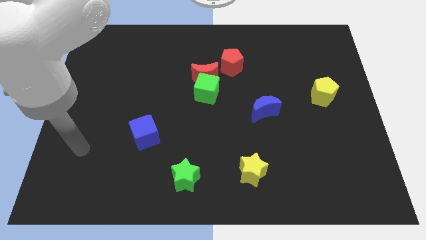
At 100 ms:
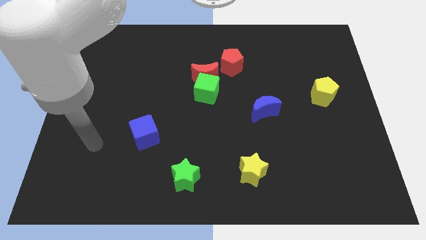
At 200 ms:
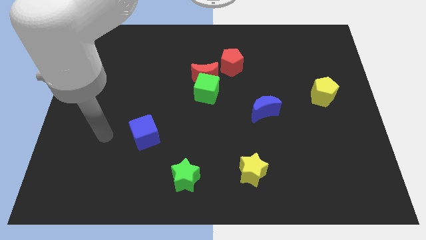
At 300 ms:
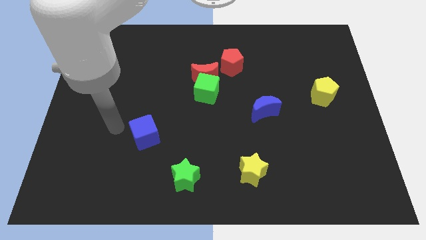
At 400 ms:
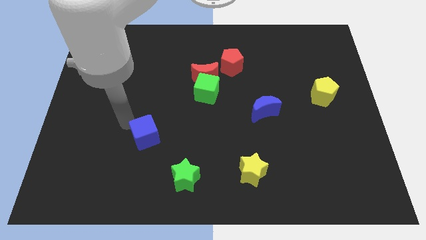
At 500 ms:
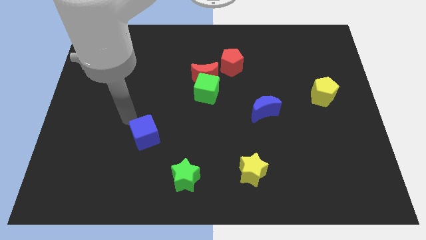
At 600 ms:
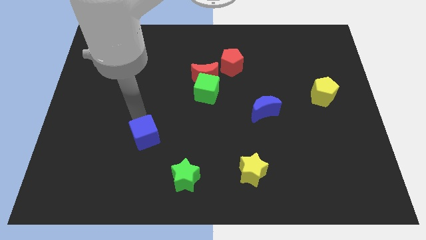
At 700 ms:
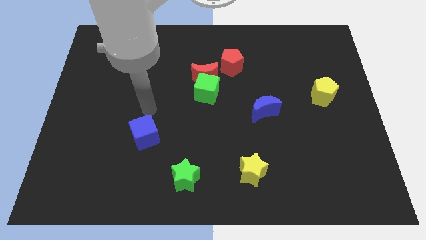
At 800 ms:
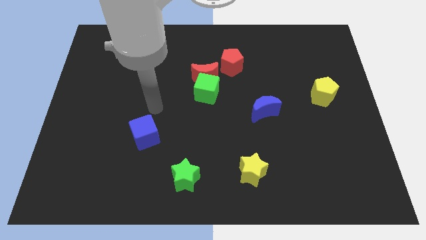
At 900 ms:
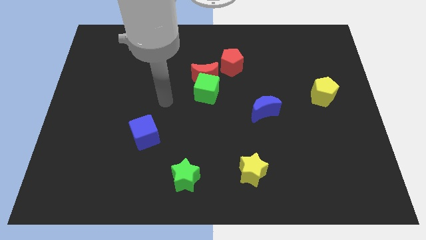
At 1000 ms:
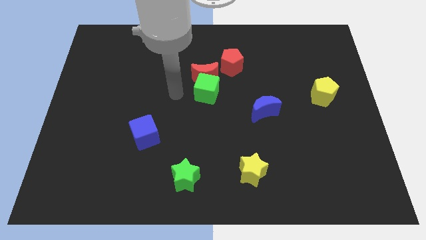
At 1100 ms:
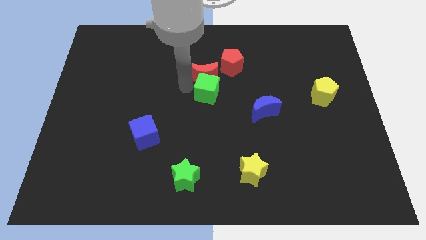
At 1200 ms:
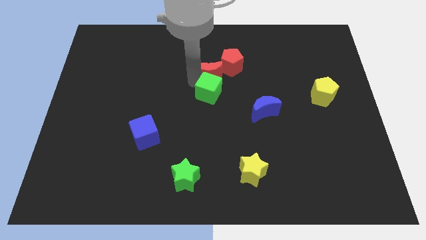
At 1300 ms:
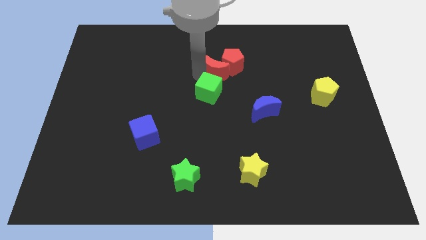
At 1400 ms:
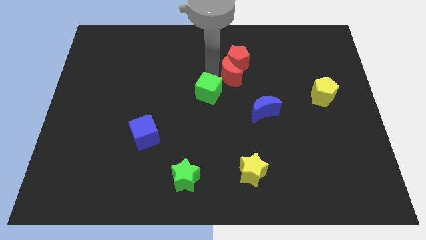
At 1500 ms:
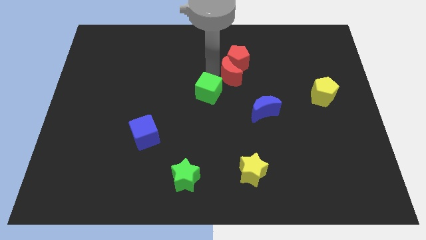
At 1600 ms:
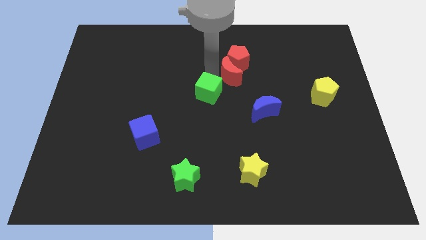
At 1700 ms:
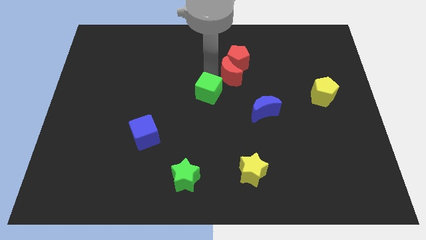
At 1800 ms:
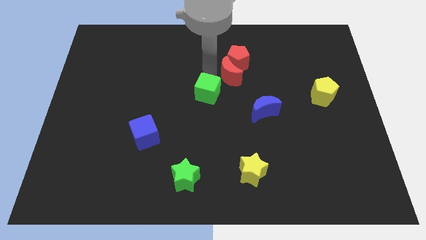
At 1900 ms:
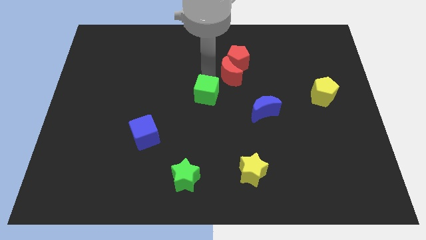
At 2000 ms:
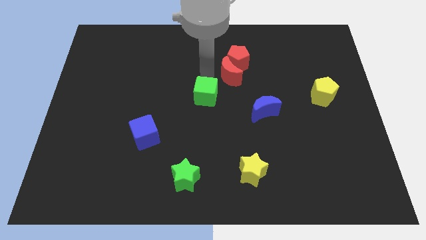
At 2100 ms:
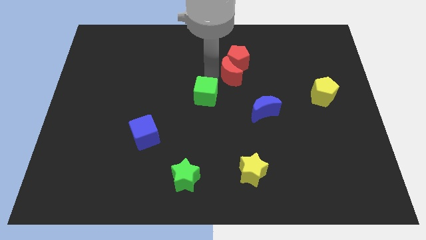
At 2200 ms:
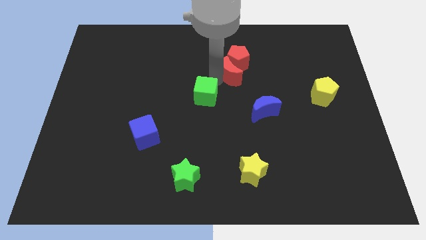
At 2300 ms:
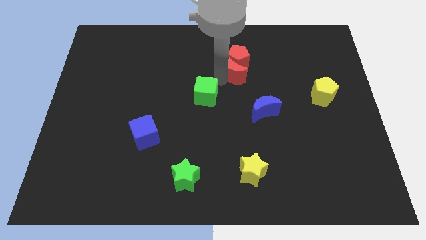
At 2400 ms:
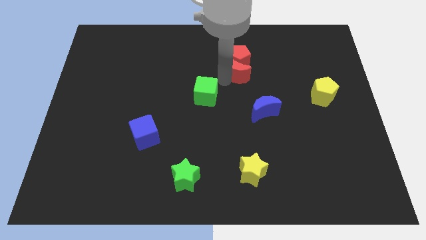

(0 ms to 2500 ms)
separate the green cube from the red moon

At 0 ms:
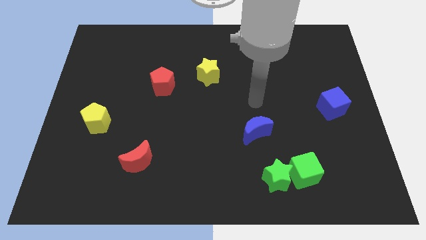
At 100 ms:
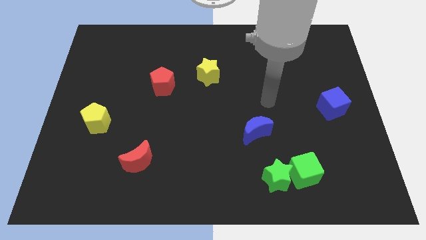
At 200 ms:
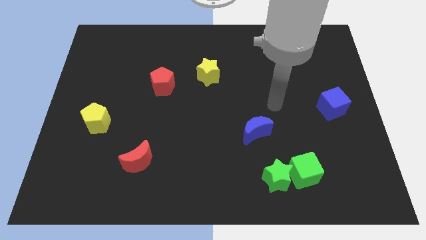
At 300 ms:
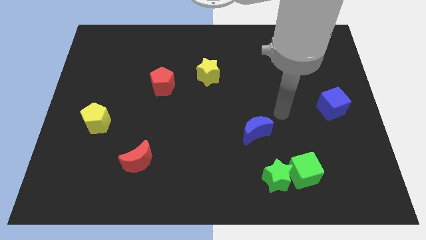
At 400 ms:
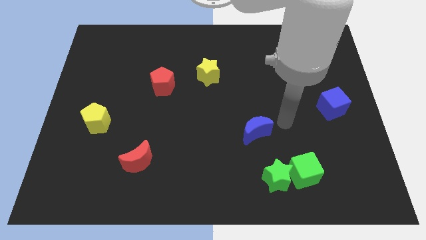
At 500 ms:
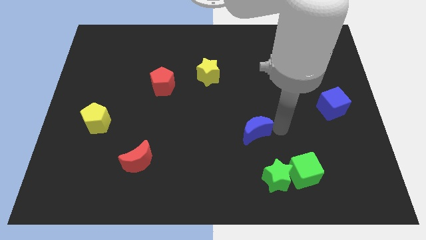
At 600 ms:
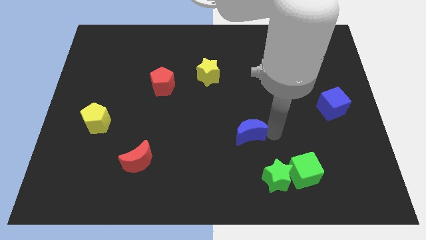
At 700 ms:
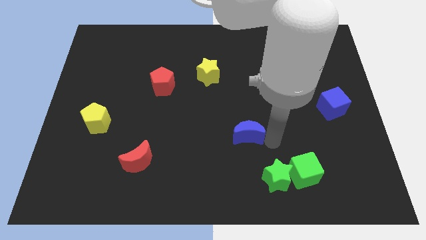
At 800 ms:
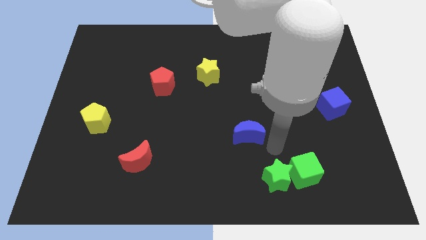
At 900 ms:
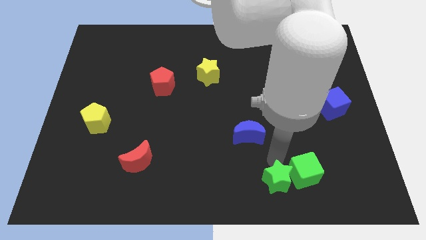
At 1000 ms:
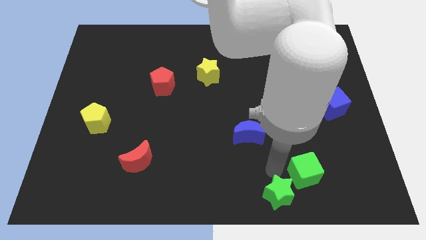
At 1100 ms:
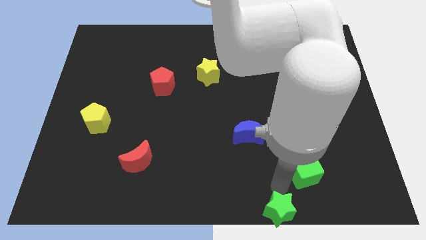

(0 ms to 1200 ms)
pull the green cube apart from the green star

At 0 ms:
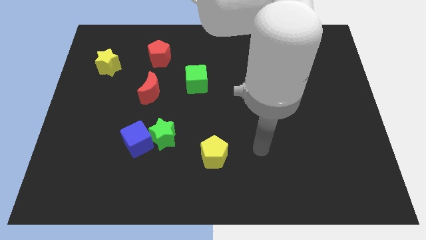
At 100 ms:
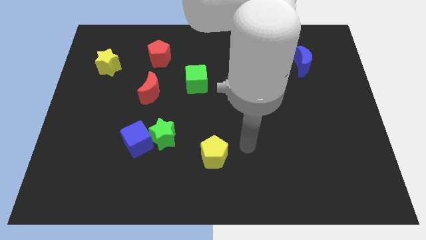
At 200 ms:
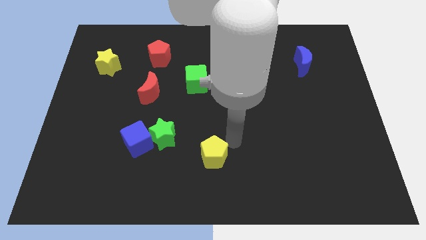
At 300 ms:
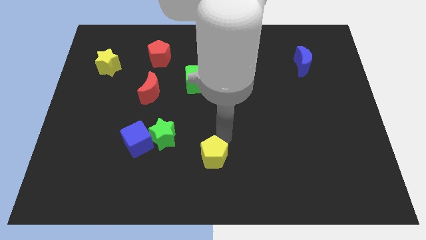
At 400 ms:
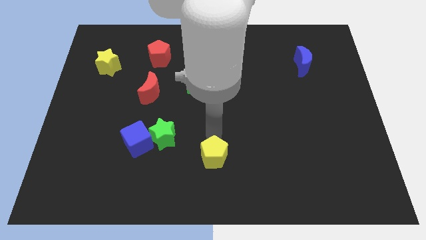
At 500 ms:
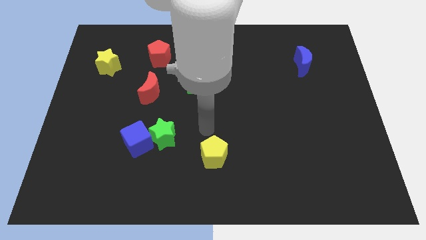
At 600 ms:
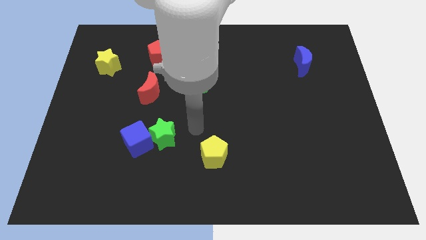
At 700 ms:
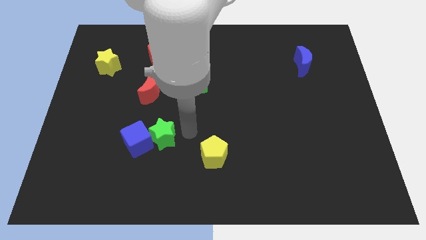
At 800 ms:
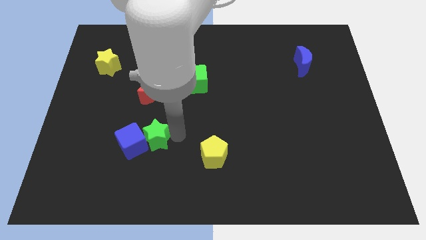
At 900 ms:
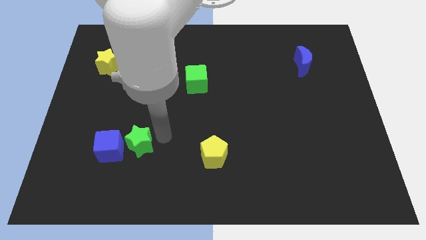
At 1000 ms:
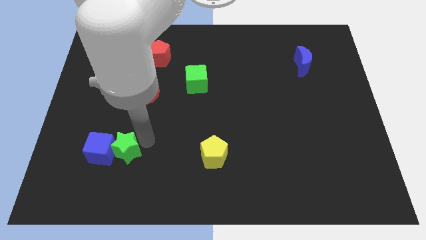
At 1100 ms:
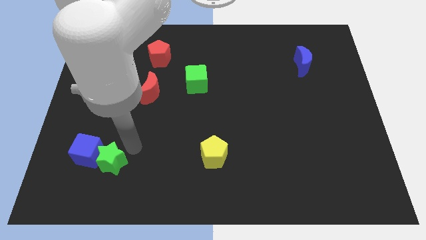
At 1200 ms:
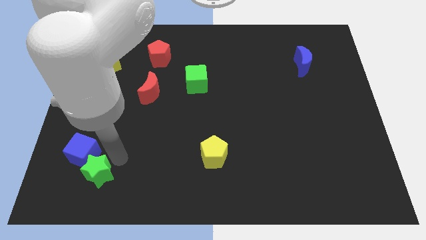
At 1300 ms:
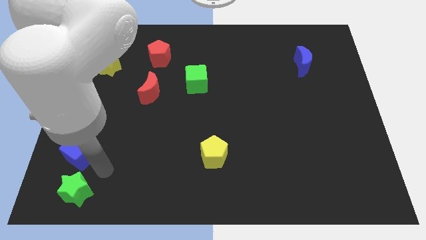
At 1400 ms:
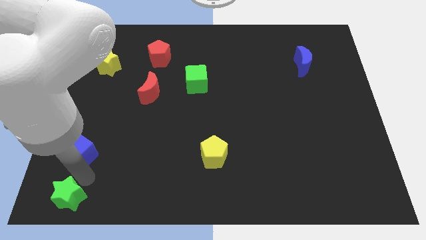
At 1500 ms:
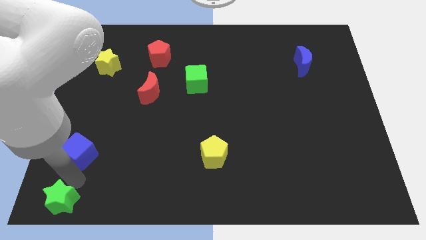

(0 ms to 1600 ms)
separate the blue cube from the green star

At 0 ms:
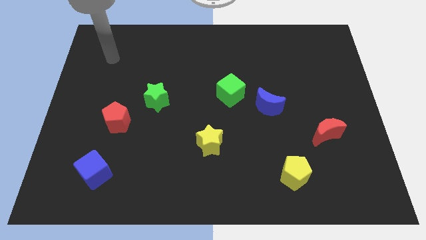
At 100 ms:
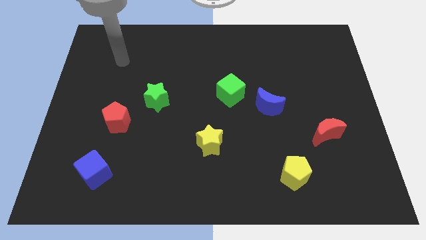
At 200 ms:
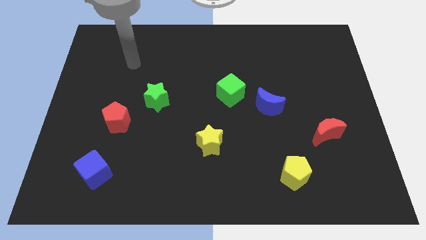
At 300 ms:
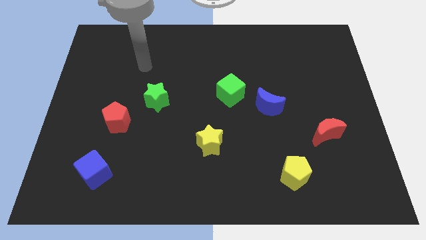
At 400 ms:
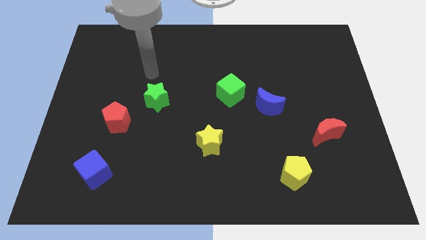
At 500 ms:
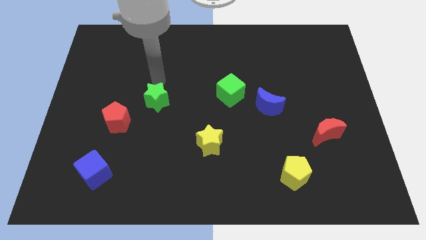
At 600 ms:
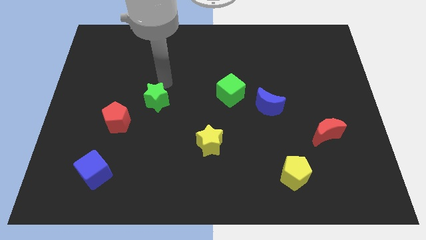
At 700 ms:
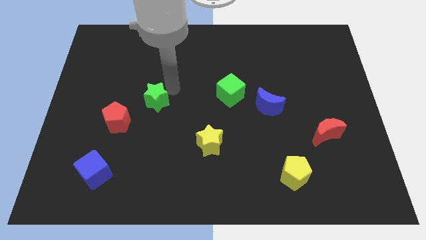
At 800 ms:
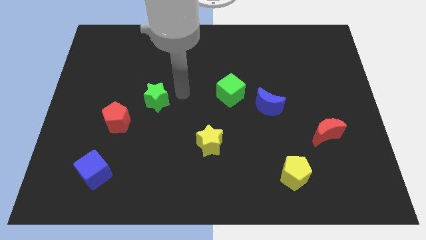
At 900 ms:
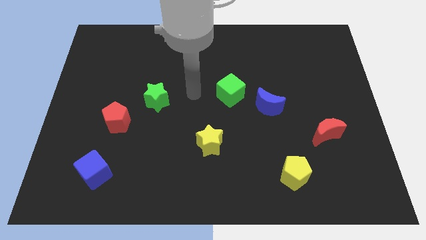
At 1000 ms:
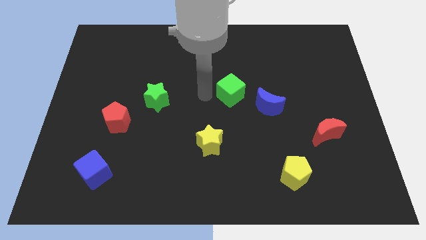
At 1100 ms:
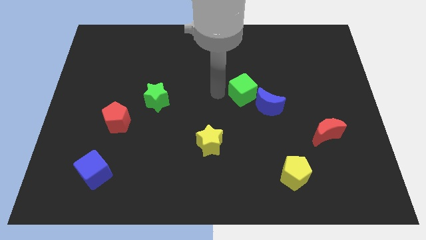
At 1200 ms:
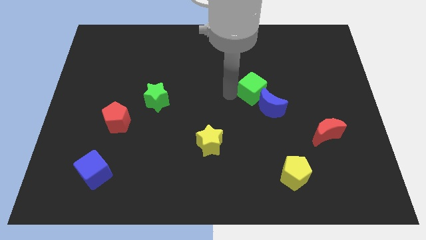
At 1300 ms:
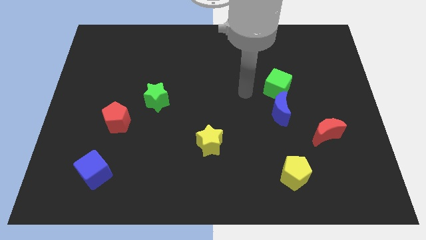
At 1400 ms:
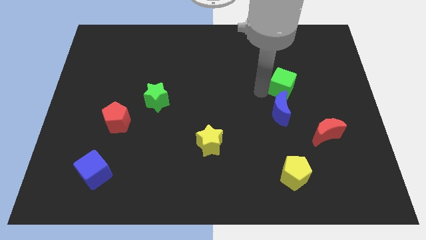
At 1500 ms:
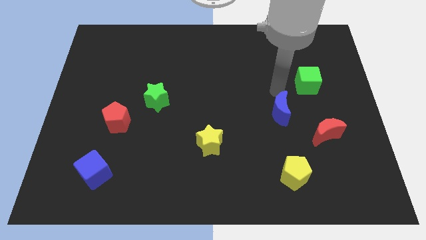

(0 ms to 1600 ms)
move the blue moon away from the green cube

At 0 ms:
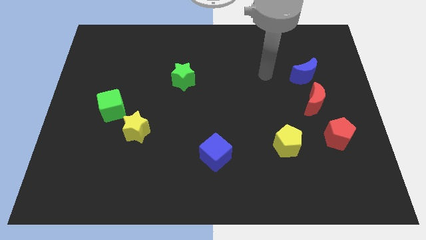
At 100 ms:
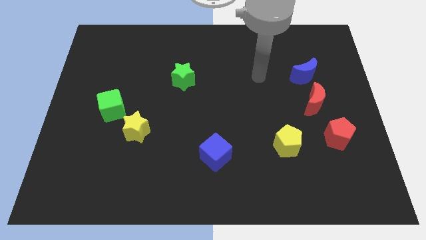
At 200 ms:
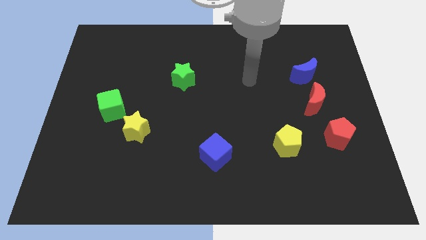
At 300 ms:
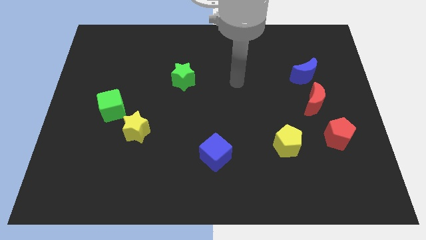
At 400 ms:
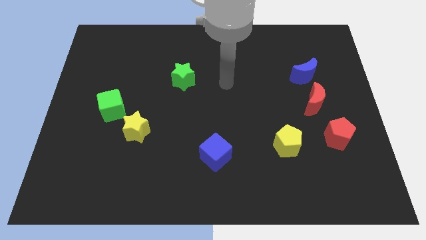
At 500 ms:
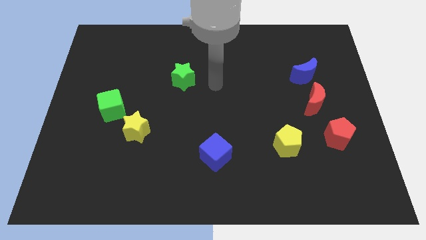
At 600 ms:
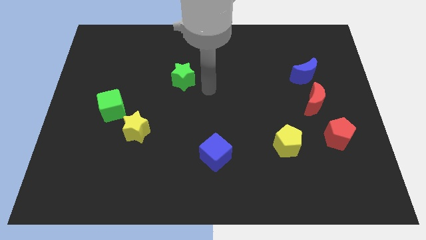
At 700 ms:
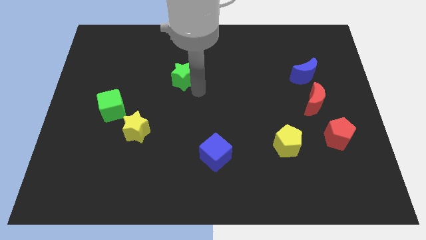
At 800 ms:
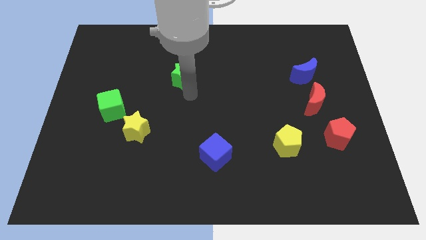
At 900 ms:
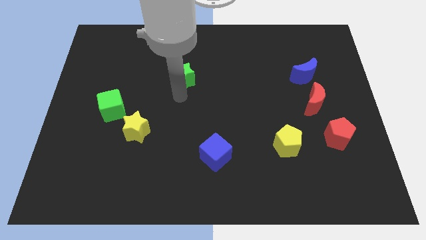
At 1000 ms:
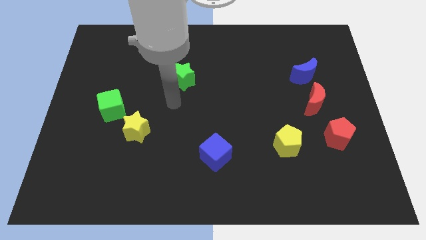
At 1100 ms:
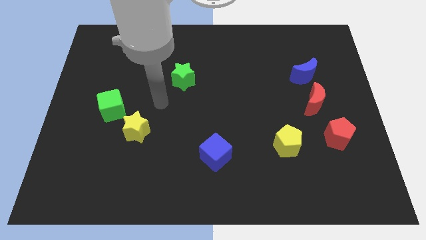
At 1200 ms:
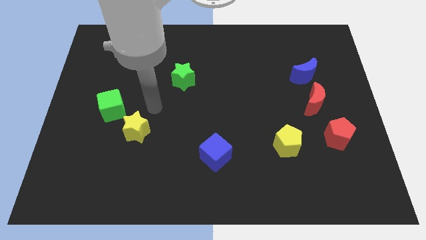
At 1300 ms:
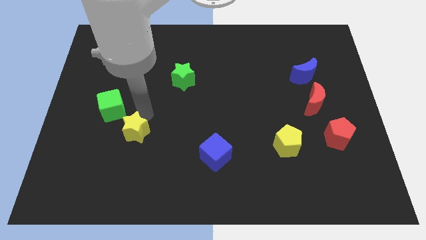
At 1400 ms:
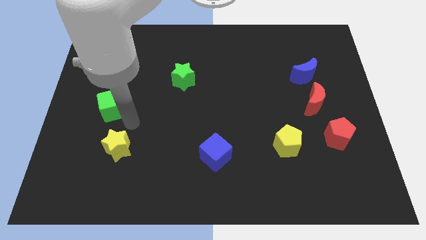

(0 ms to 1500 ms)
pull the green cube apart from the yellow star

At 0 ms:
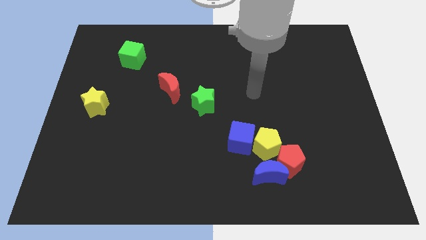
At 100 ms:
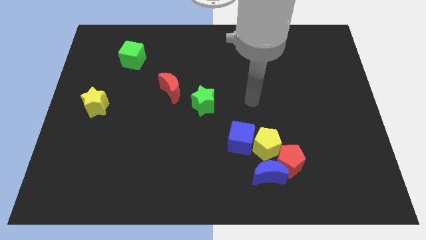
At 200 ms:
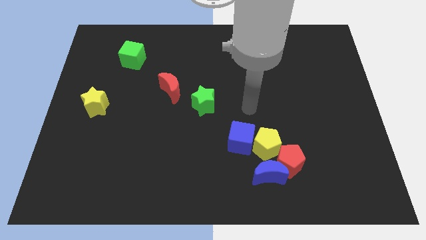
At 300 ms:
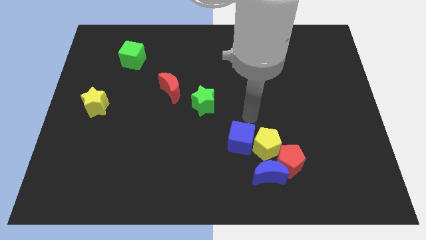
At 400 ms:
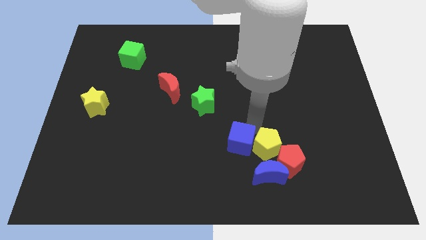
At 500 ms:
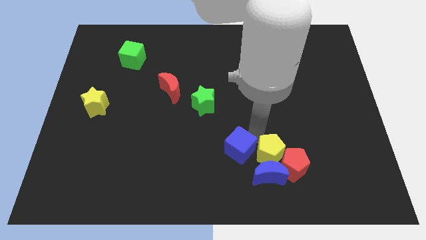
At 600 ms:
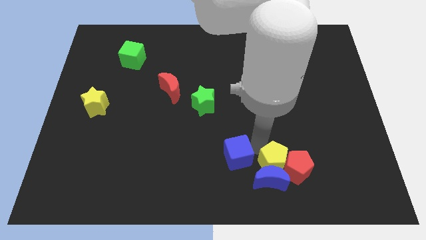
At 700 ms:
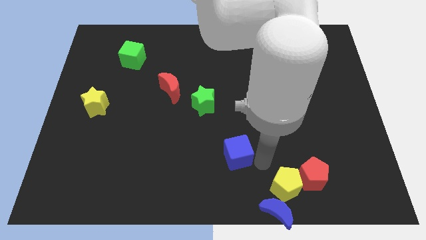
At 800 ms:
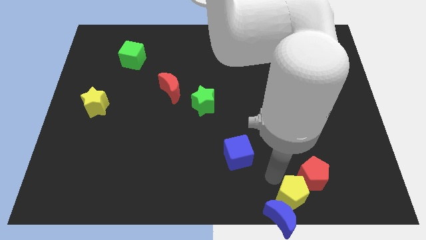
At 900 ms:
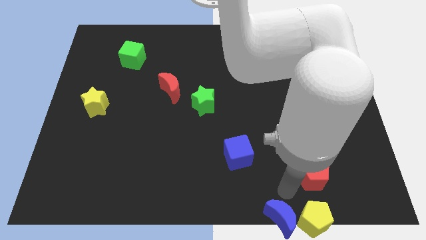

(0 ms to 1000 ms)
separate the red pentagon from the blue moon and yellow pentagon
